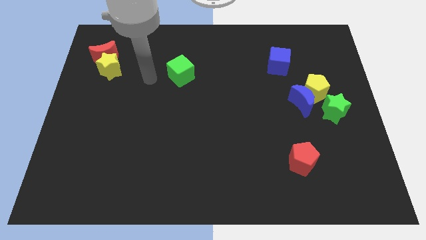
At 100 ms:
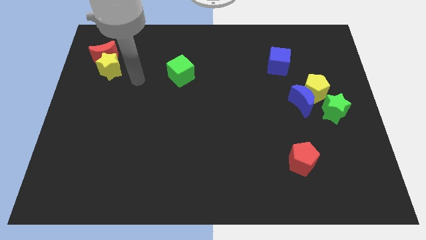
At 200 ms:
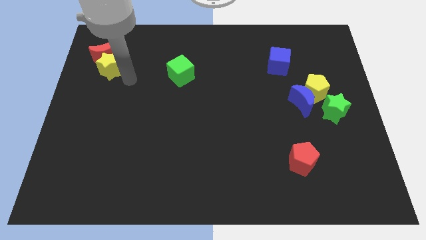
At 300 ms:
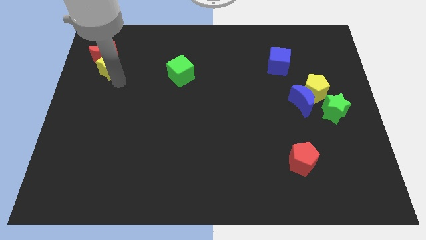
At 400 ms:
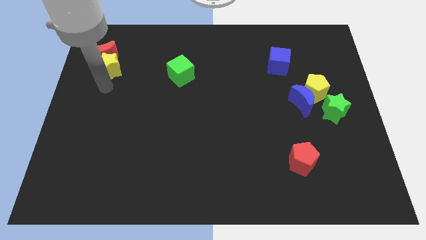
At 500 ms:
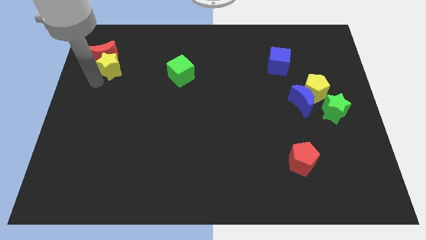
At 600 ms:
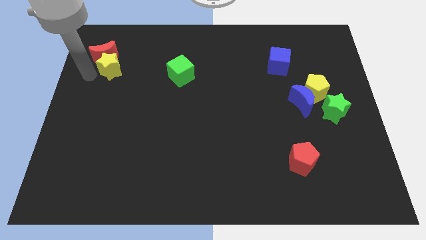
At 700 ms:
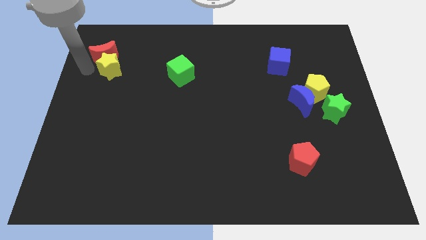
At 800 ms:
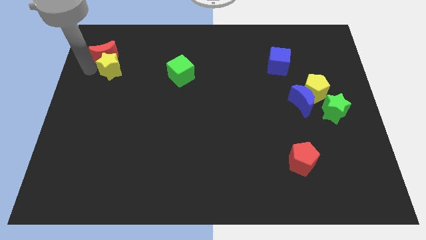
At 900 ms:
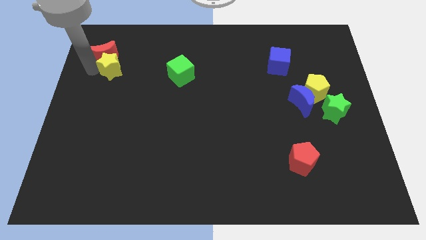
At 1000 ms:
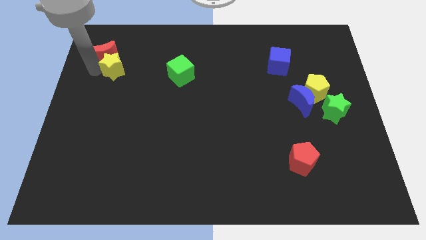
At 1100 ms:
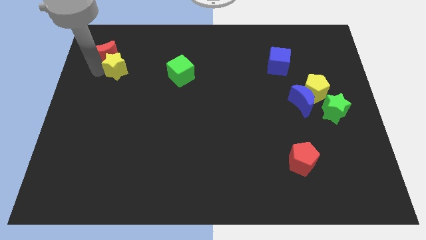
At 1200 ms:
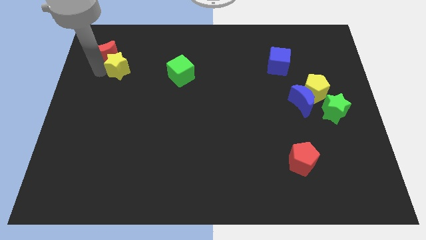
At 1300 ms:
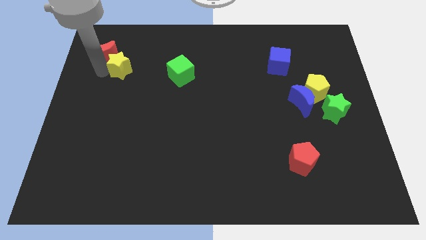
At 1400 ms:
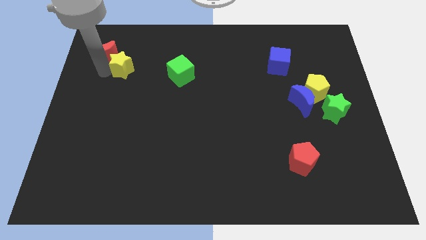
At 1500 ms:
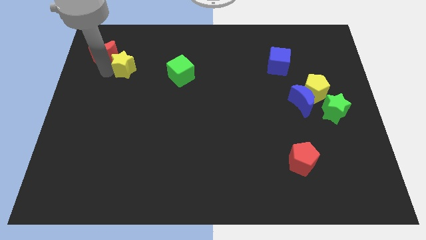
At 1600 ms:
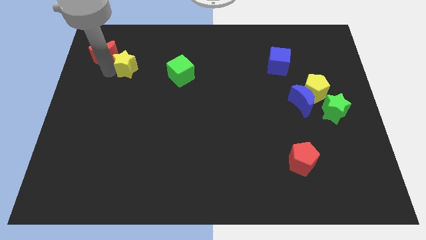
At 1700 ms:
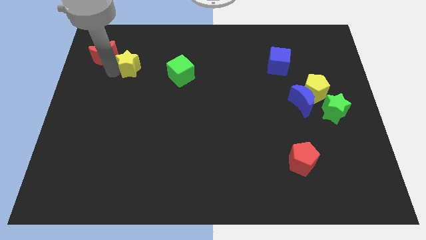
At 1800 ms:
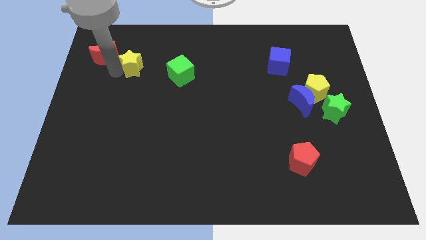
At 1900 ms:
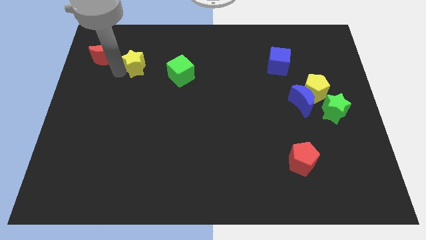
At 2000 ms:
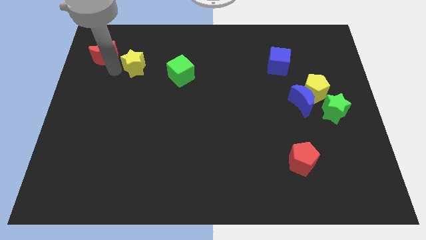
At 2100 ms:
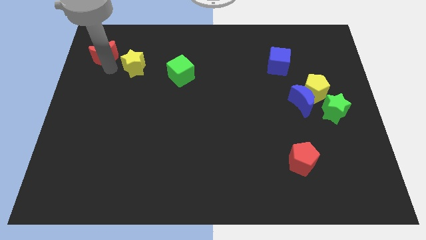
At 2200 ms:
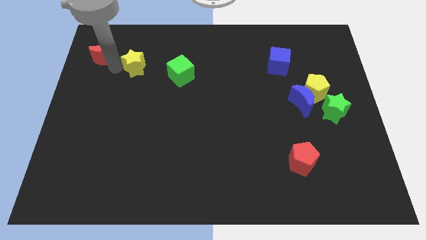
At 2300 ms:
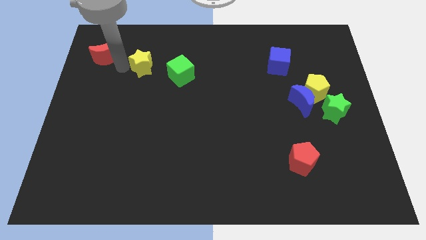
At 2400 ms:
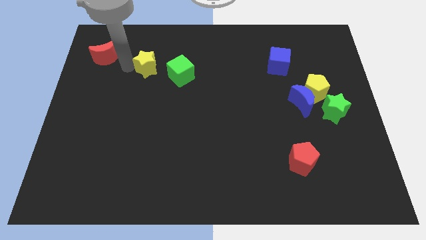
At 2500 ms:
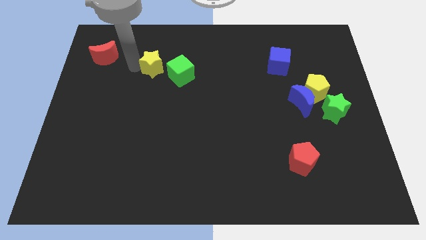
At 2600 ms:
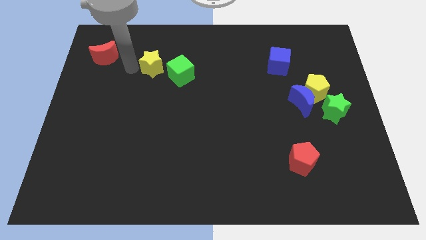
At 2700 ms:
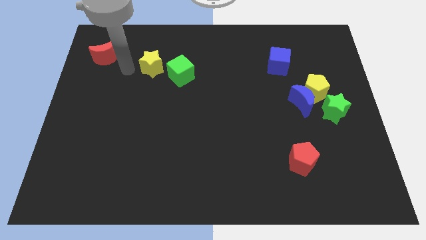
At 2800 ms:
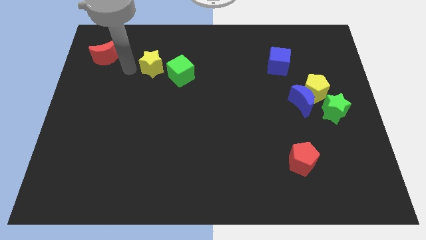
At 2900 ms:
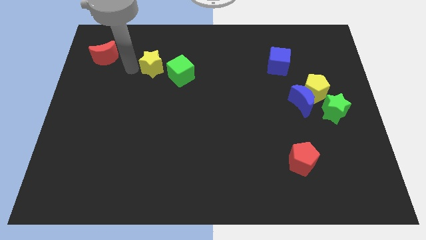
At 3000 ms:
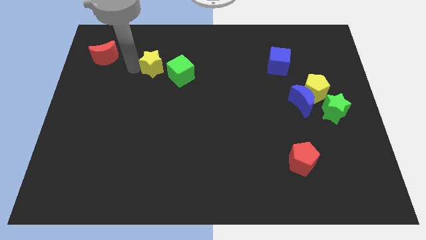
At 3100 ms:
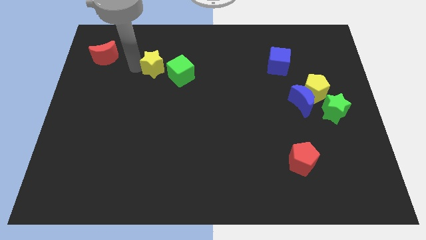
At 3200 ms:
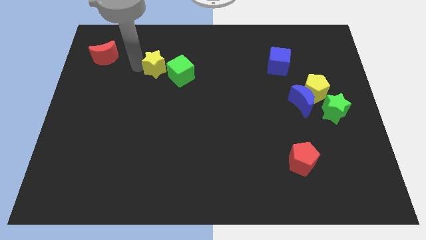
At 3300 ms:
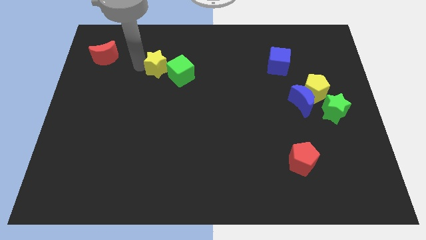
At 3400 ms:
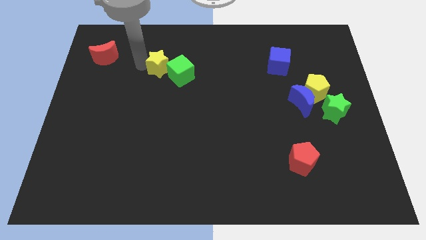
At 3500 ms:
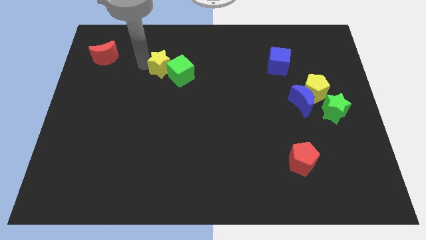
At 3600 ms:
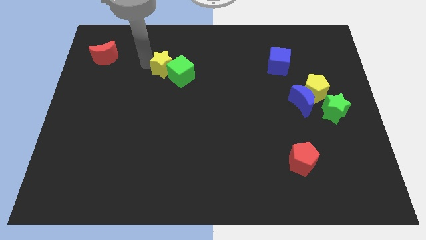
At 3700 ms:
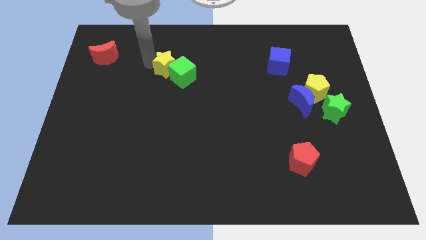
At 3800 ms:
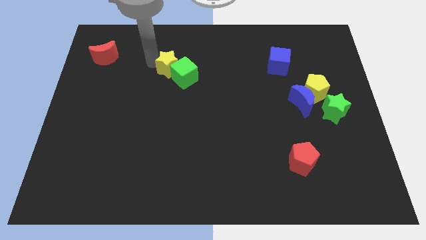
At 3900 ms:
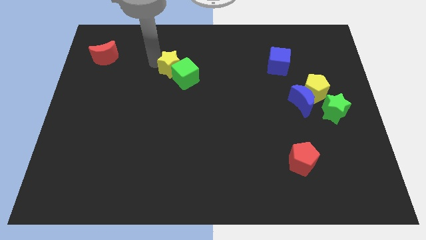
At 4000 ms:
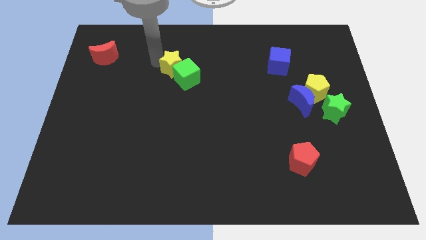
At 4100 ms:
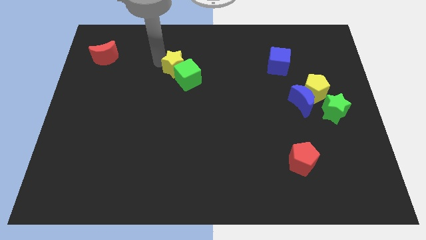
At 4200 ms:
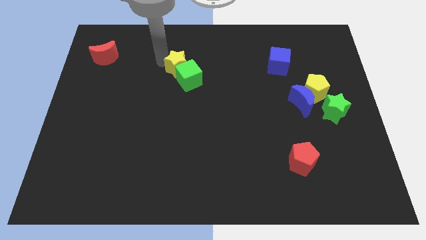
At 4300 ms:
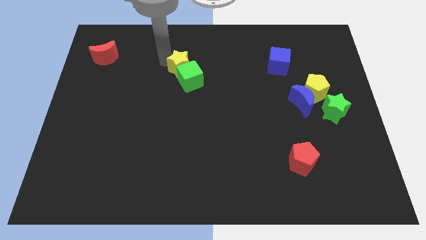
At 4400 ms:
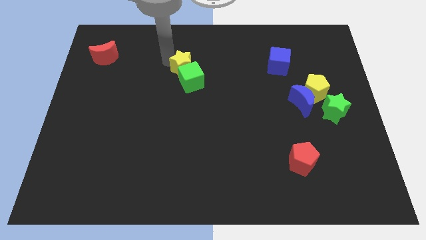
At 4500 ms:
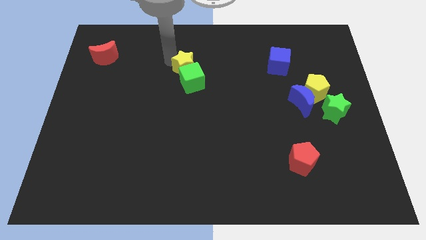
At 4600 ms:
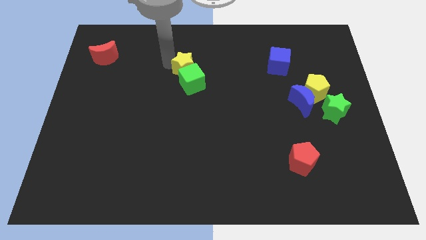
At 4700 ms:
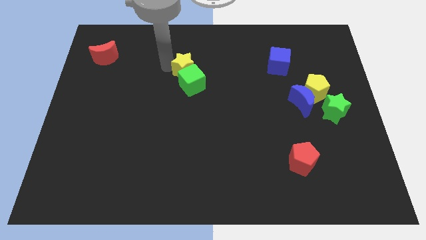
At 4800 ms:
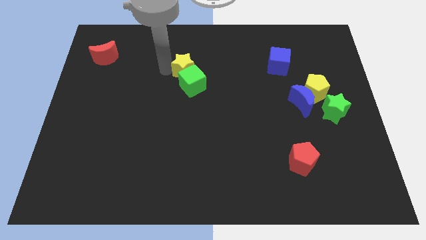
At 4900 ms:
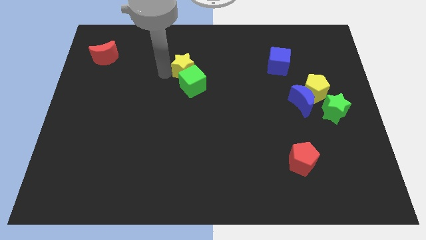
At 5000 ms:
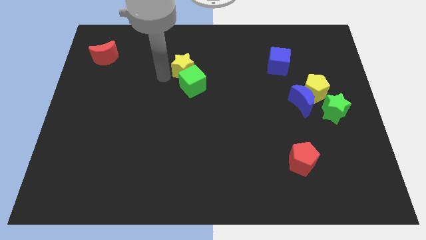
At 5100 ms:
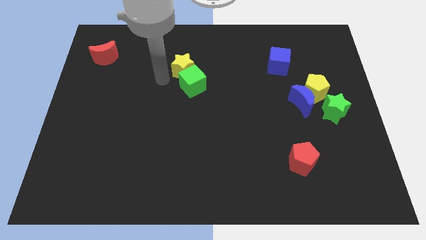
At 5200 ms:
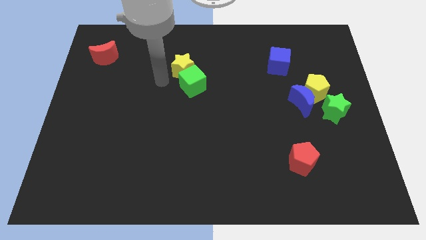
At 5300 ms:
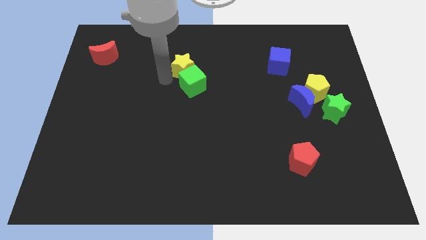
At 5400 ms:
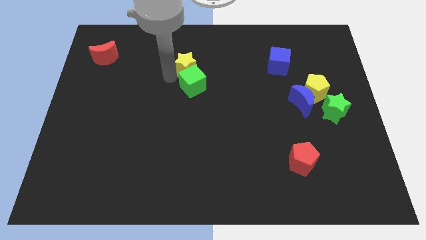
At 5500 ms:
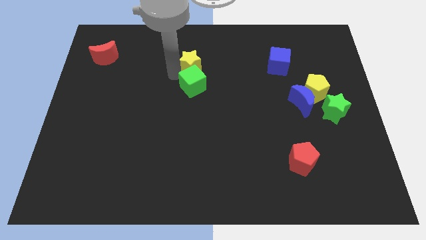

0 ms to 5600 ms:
slide the yellow star right

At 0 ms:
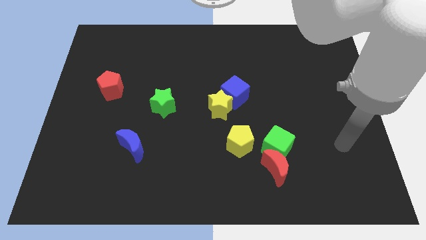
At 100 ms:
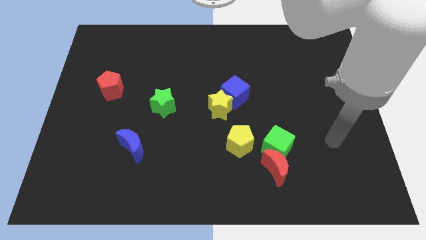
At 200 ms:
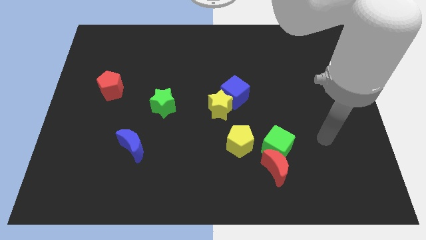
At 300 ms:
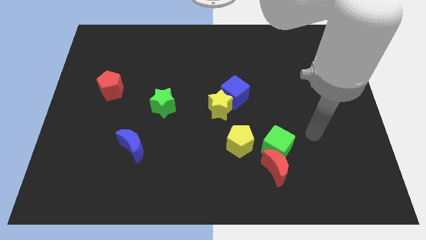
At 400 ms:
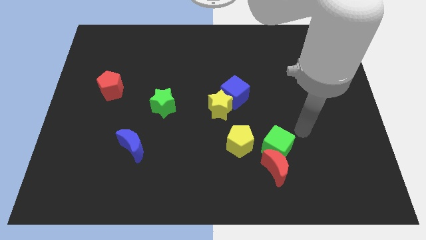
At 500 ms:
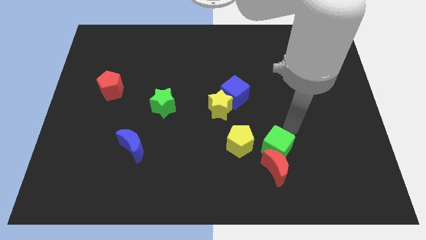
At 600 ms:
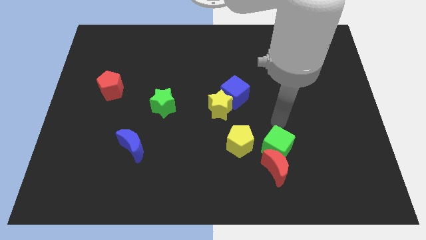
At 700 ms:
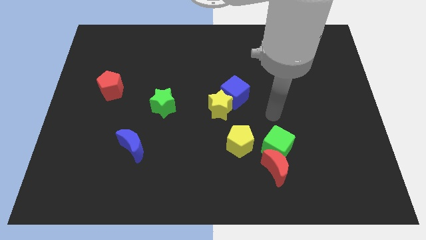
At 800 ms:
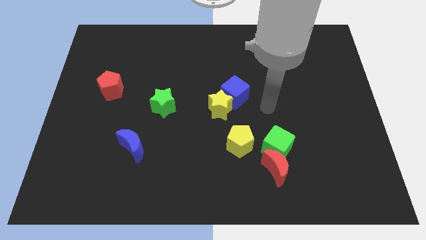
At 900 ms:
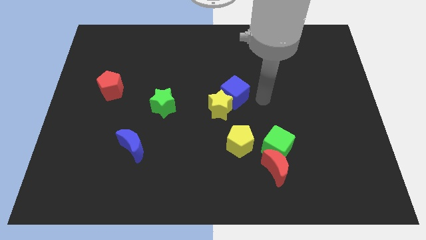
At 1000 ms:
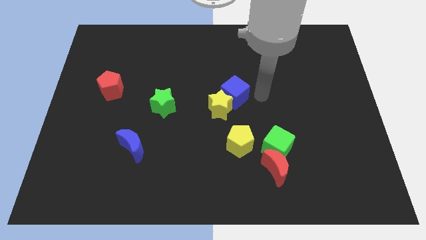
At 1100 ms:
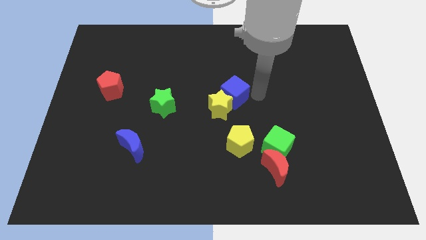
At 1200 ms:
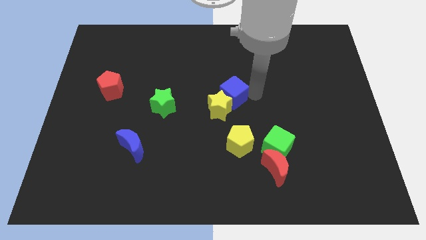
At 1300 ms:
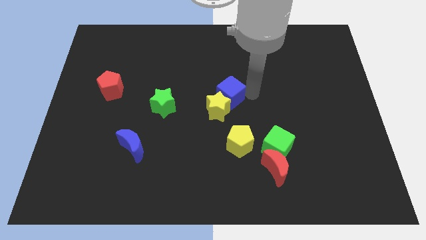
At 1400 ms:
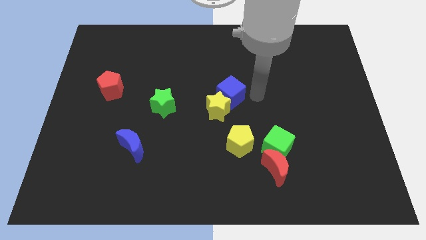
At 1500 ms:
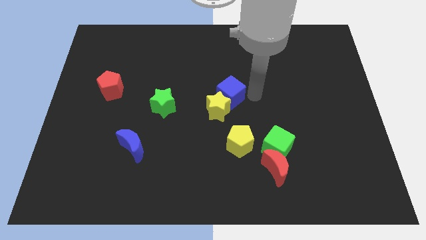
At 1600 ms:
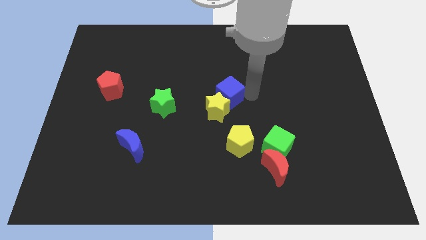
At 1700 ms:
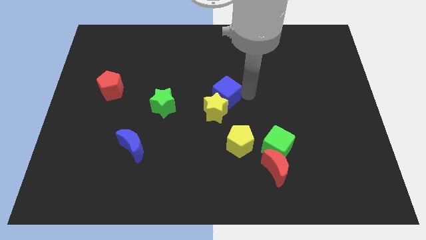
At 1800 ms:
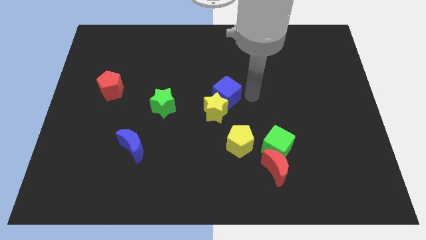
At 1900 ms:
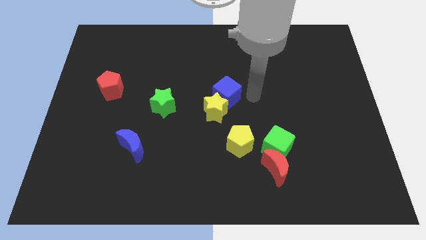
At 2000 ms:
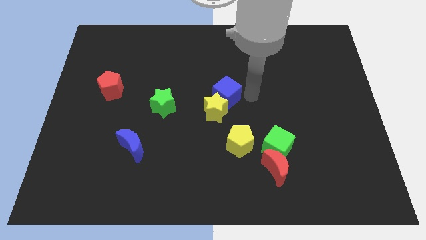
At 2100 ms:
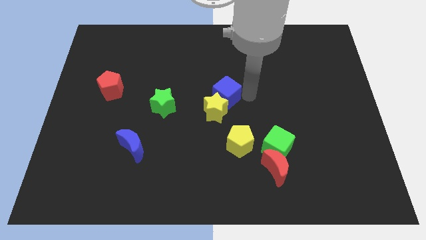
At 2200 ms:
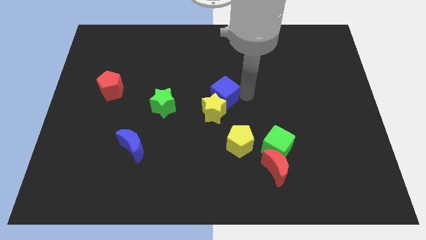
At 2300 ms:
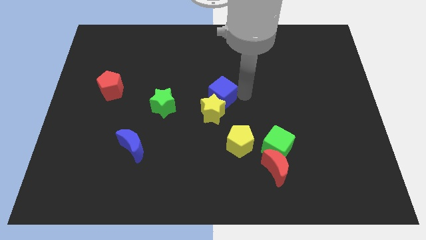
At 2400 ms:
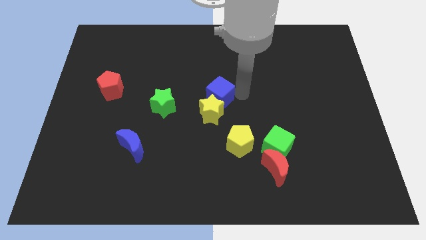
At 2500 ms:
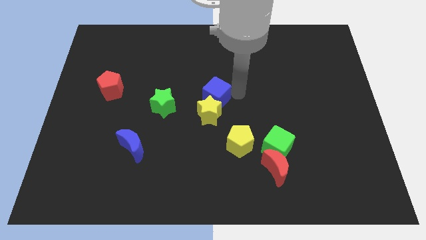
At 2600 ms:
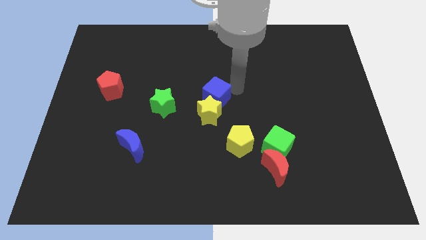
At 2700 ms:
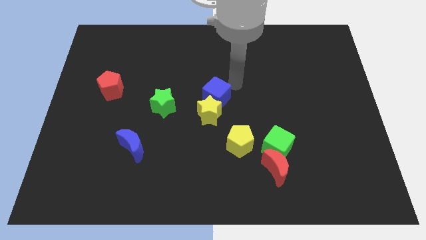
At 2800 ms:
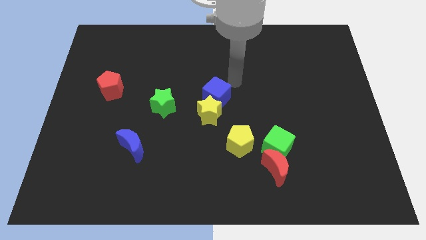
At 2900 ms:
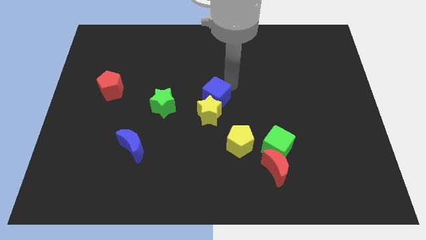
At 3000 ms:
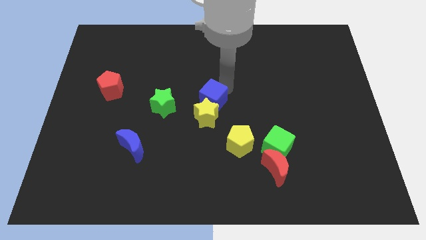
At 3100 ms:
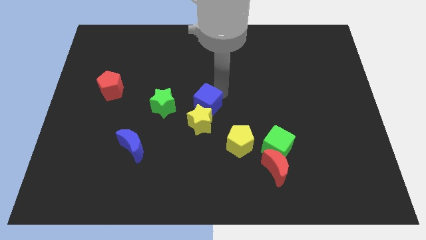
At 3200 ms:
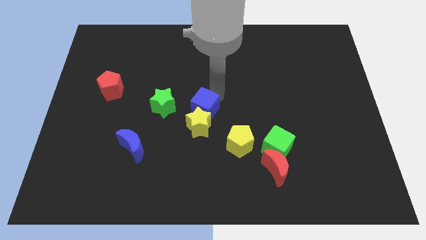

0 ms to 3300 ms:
slightly slide the blue cube down and left diagonally
